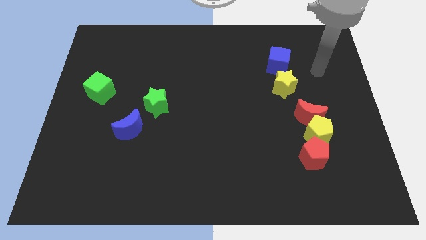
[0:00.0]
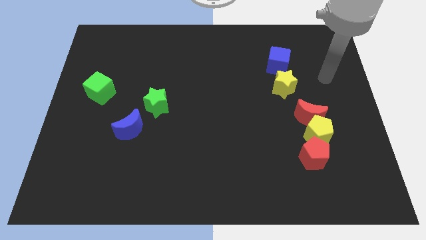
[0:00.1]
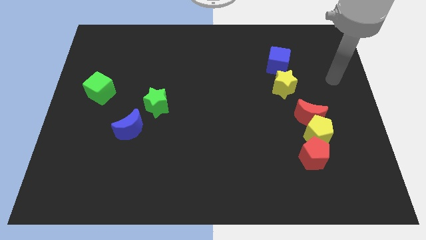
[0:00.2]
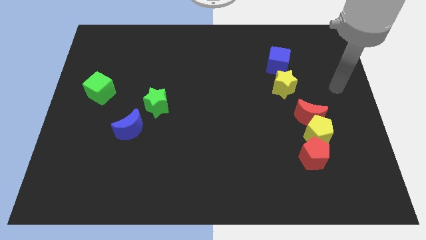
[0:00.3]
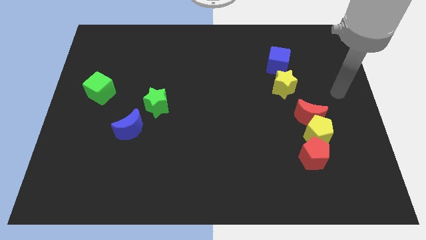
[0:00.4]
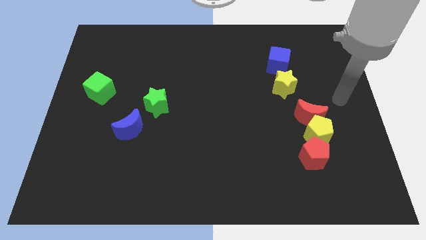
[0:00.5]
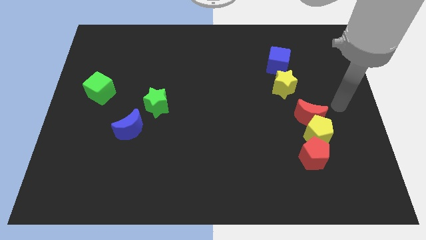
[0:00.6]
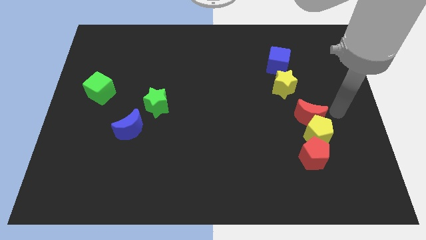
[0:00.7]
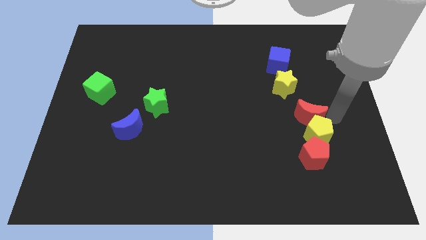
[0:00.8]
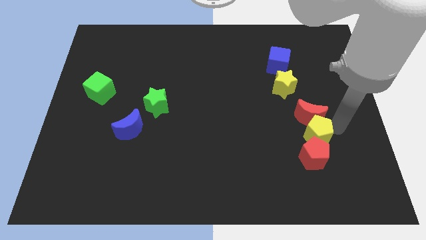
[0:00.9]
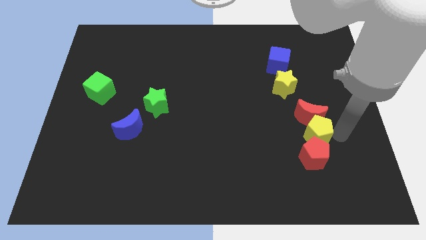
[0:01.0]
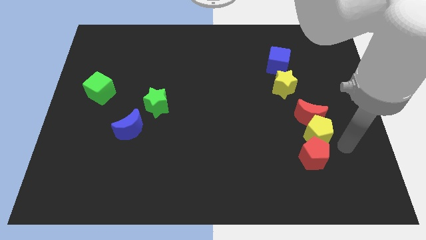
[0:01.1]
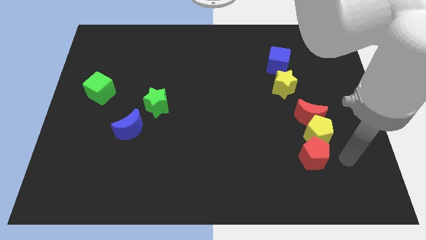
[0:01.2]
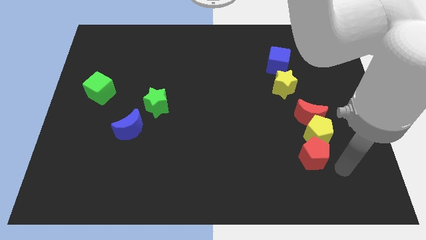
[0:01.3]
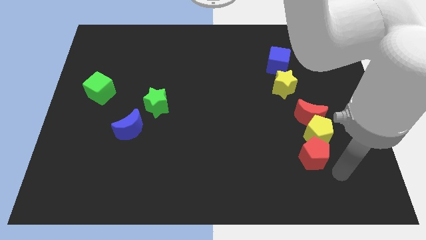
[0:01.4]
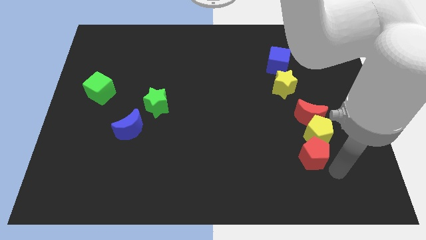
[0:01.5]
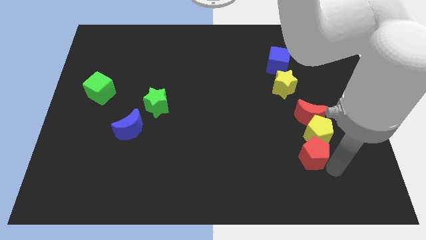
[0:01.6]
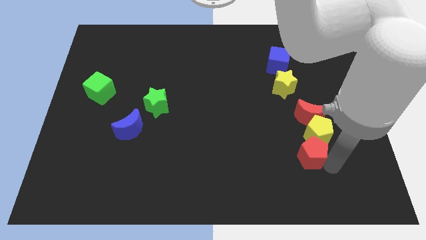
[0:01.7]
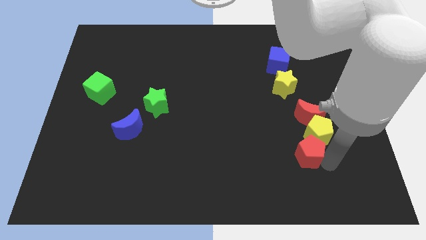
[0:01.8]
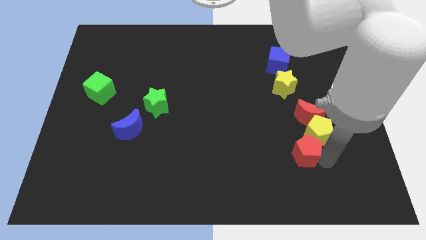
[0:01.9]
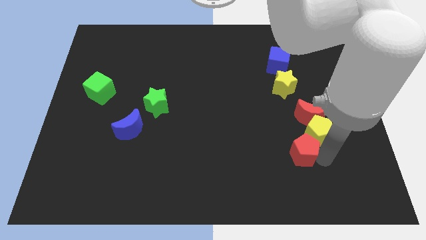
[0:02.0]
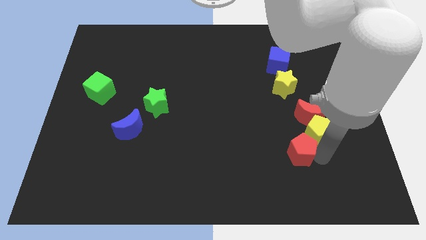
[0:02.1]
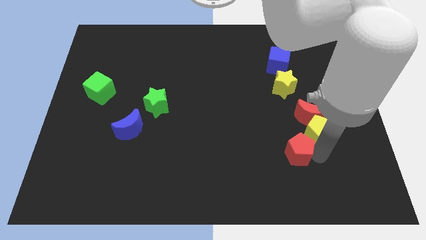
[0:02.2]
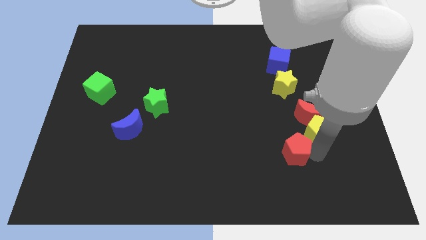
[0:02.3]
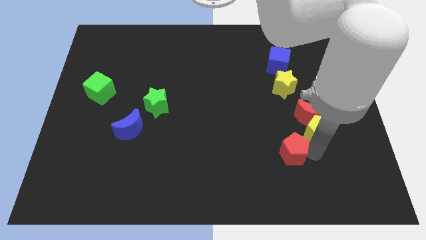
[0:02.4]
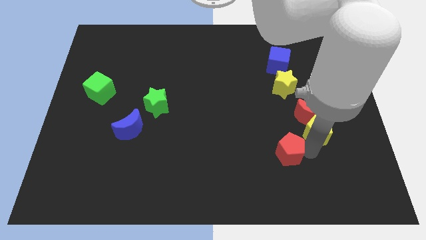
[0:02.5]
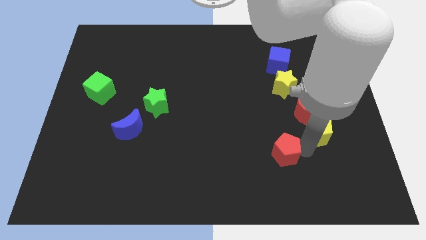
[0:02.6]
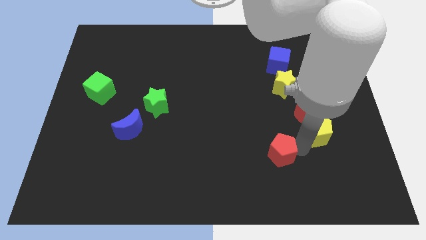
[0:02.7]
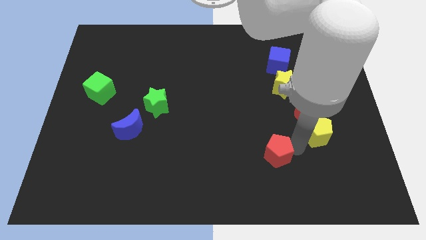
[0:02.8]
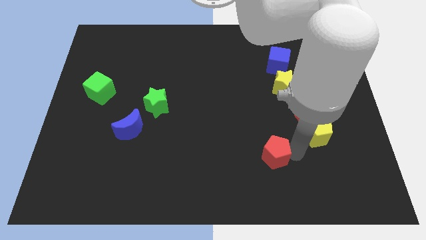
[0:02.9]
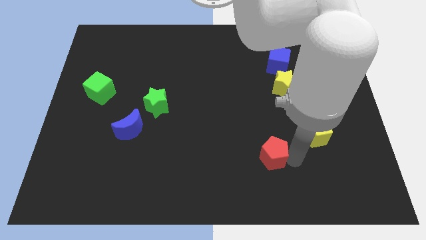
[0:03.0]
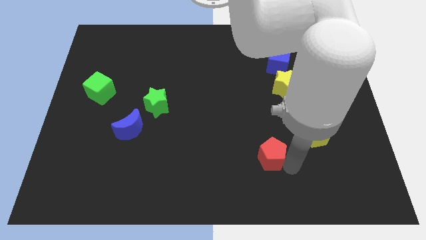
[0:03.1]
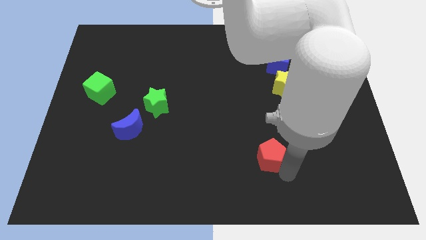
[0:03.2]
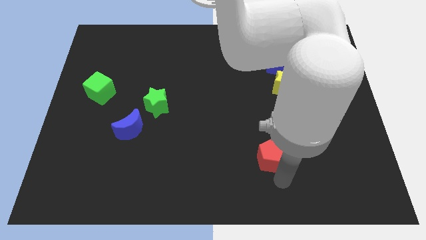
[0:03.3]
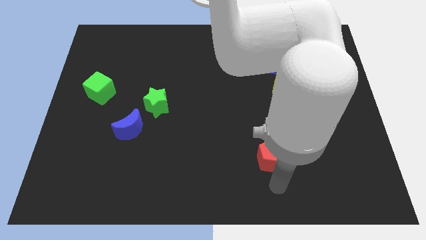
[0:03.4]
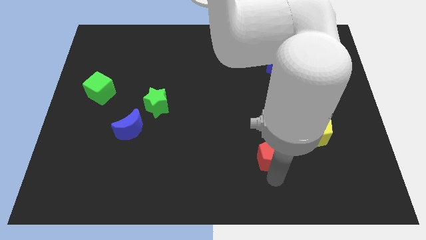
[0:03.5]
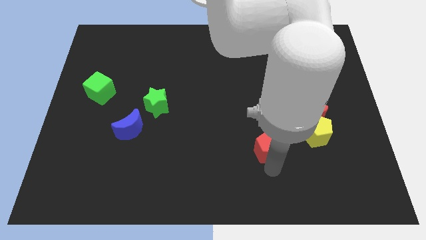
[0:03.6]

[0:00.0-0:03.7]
slightly slide the red pentagon upwards and left

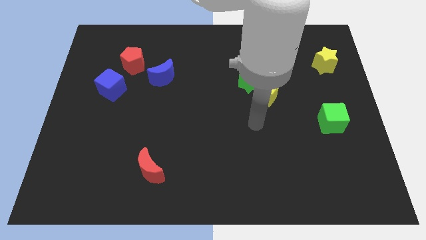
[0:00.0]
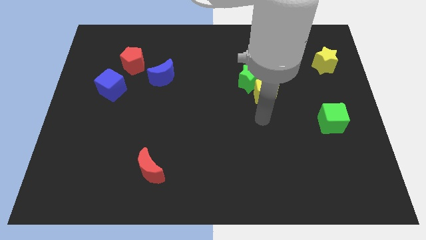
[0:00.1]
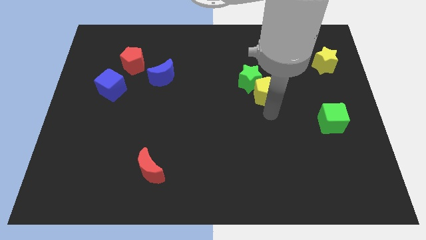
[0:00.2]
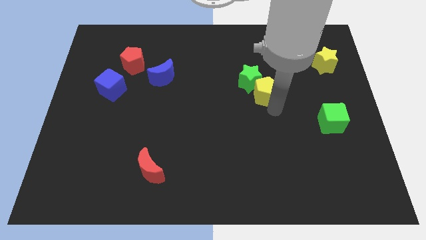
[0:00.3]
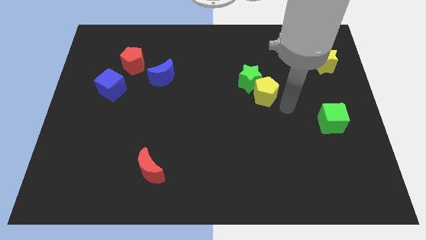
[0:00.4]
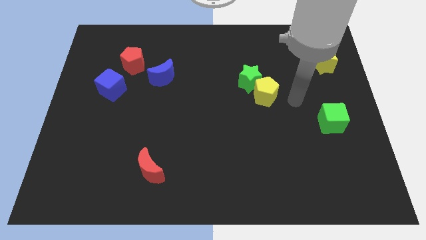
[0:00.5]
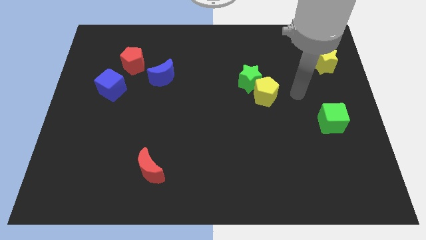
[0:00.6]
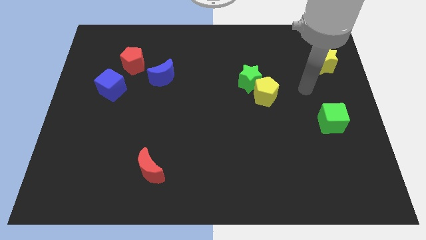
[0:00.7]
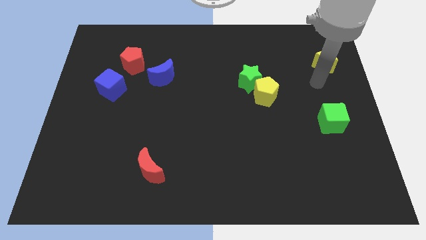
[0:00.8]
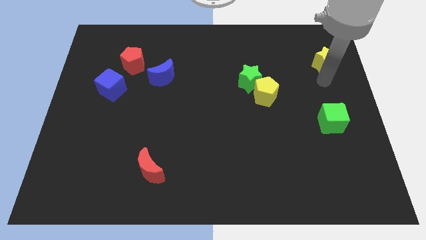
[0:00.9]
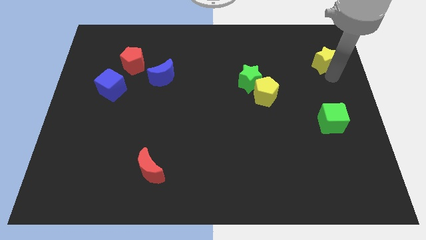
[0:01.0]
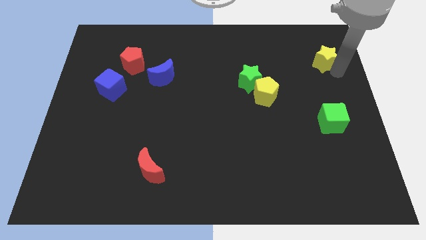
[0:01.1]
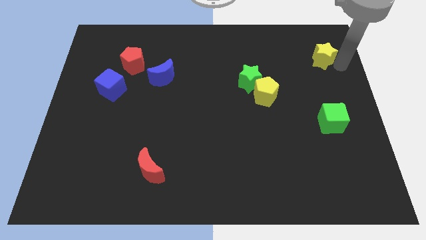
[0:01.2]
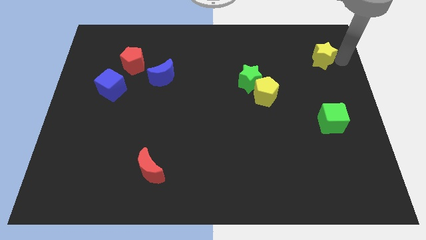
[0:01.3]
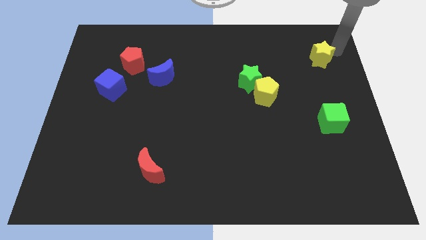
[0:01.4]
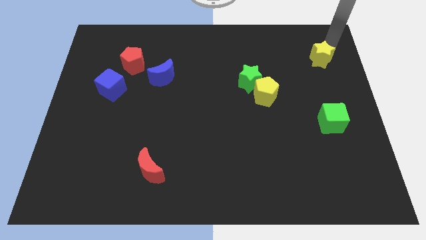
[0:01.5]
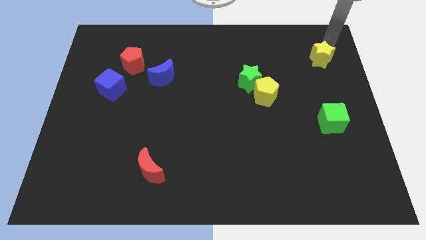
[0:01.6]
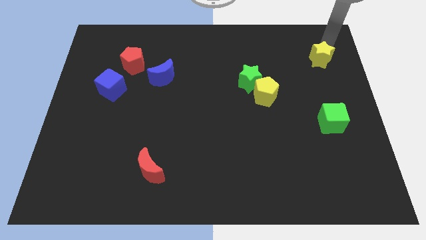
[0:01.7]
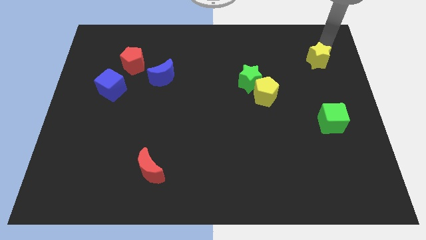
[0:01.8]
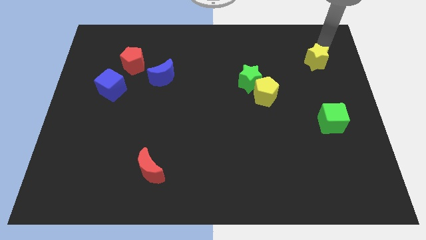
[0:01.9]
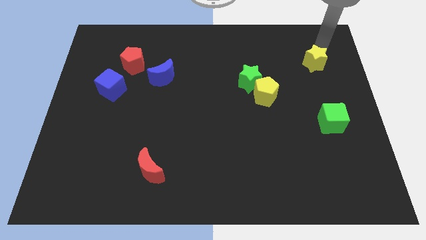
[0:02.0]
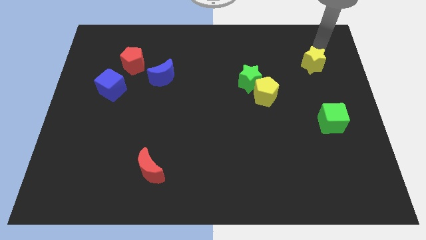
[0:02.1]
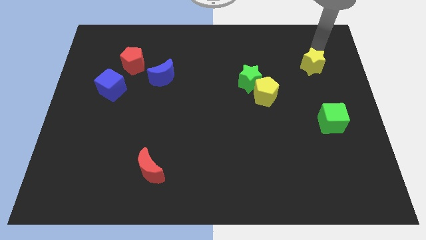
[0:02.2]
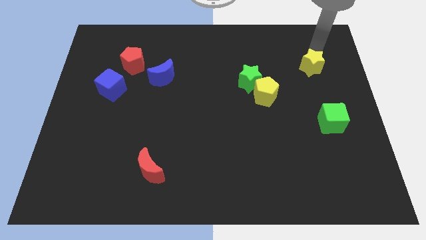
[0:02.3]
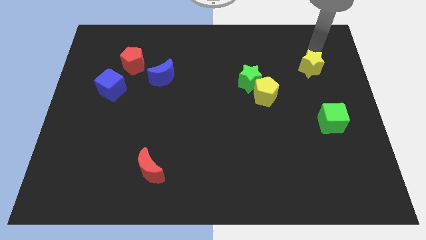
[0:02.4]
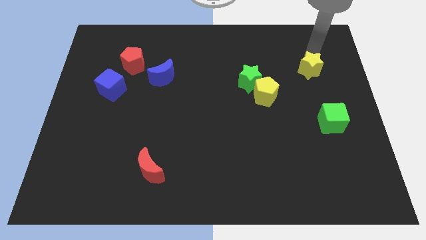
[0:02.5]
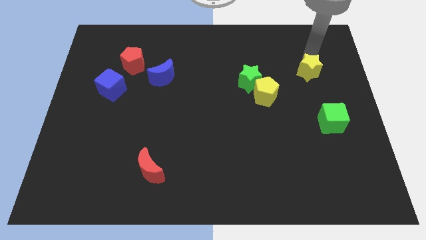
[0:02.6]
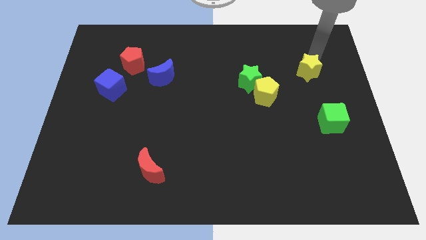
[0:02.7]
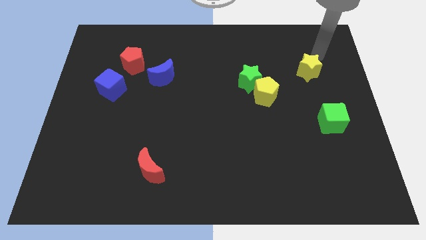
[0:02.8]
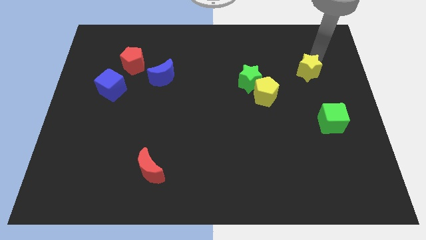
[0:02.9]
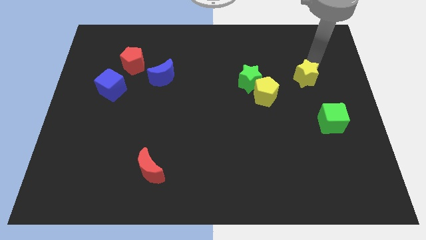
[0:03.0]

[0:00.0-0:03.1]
slightly slide the yellow star downwards and left diagonally

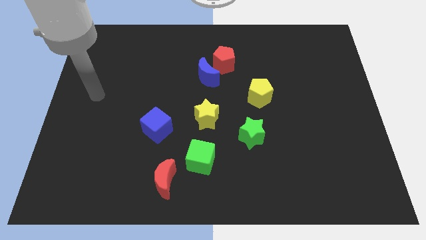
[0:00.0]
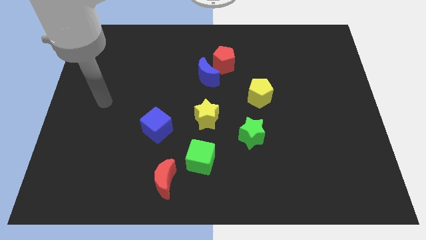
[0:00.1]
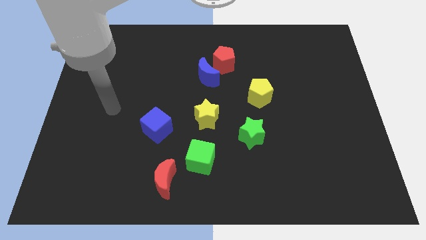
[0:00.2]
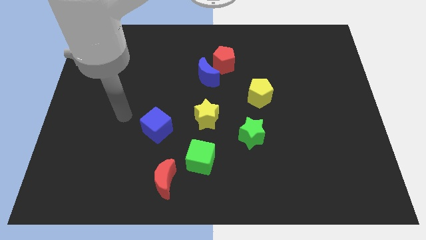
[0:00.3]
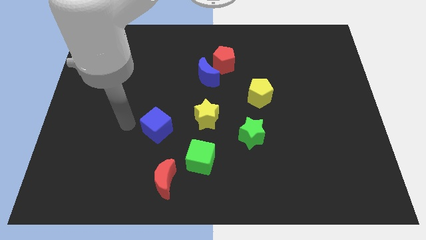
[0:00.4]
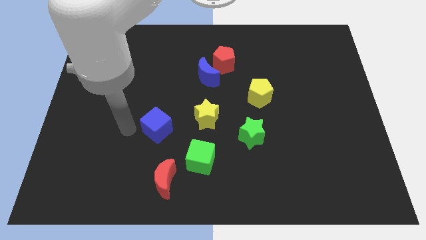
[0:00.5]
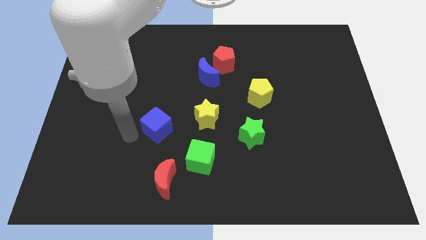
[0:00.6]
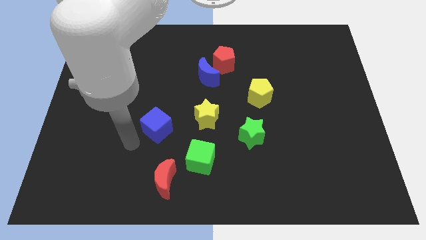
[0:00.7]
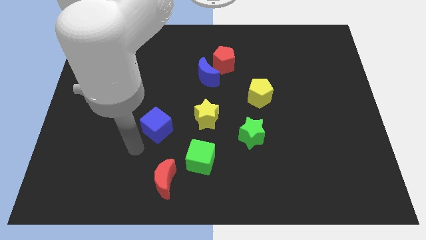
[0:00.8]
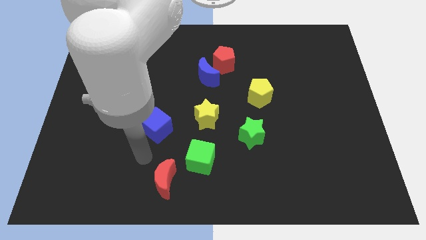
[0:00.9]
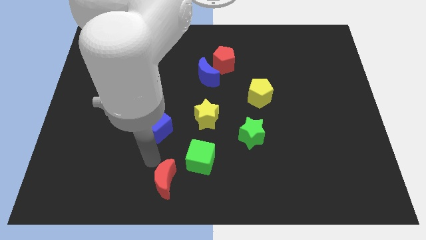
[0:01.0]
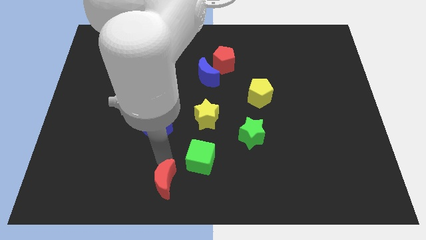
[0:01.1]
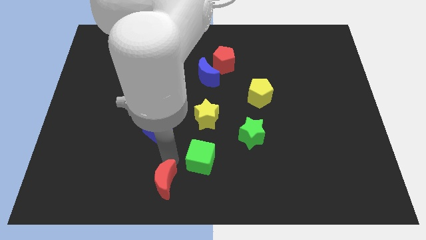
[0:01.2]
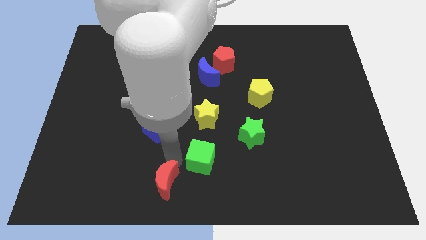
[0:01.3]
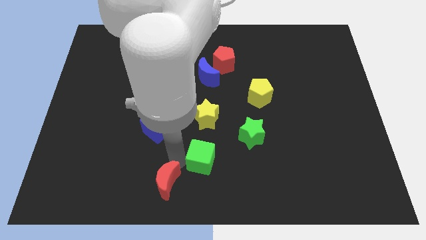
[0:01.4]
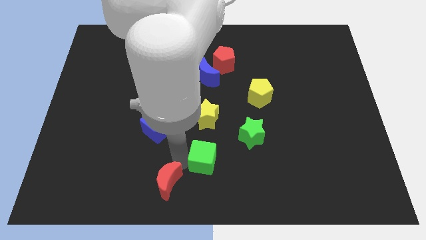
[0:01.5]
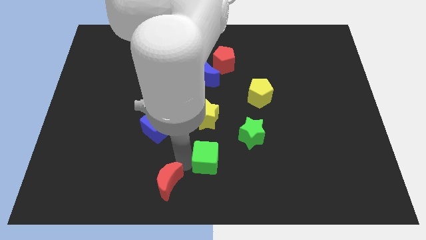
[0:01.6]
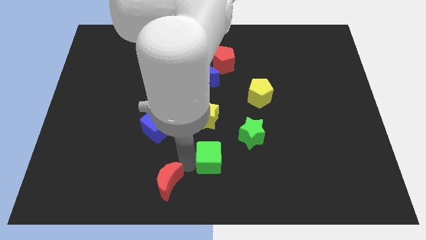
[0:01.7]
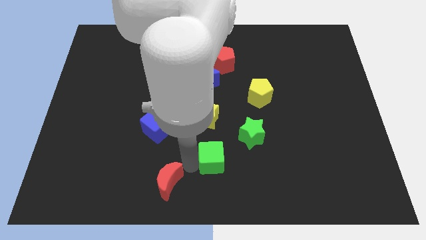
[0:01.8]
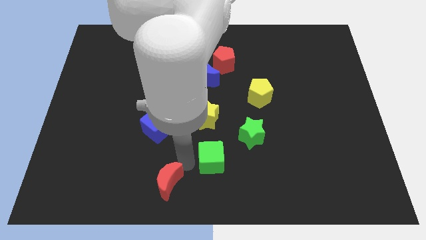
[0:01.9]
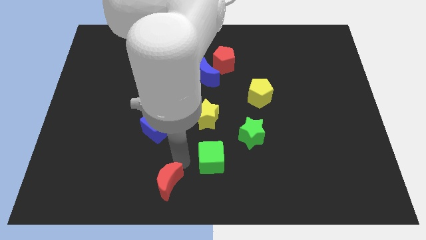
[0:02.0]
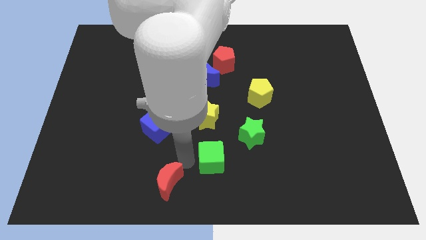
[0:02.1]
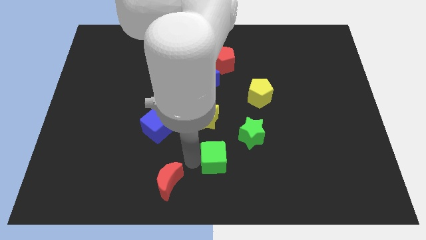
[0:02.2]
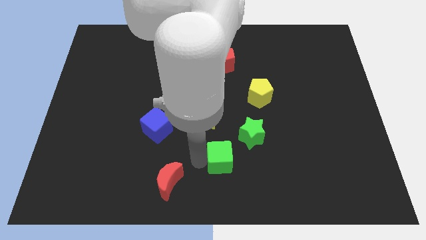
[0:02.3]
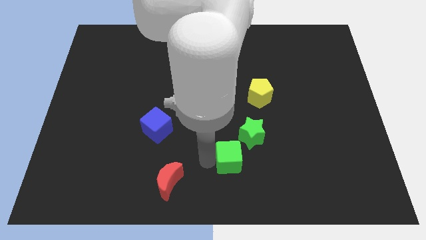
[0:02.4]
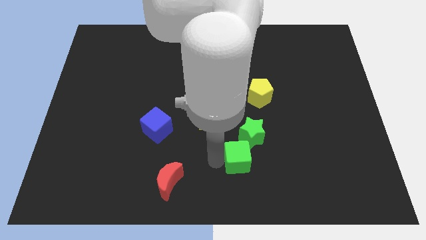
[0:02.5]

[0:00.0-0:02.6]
slightly push the green cube to the right
